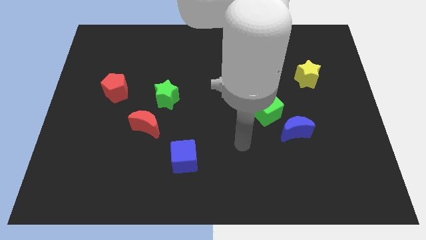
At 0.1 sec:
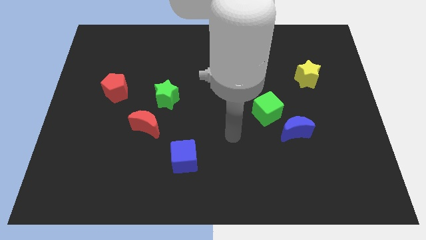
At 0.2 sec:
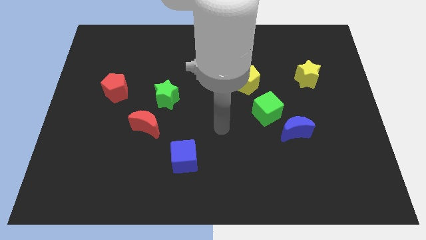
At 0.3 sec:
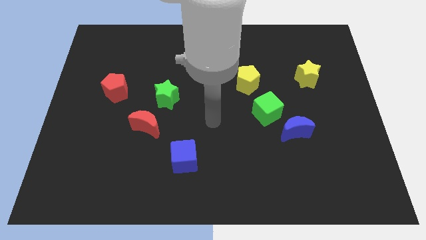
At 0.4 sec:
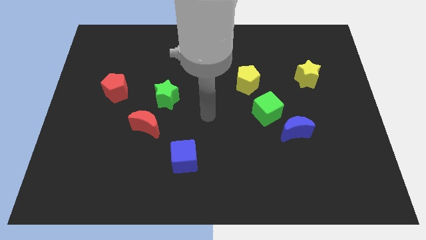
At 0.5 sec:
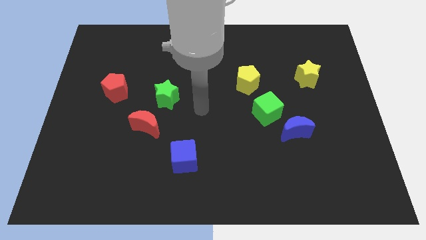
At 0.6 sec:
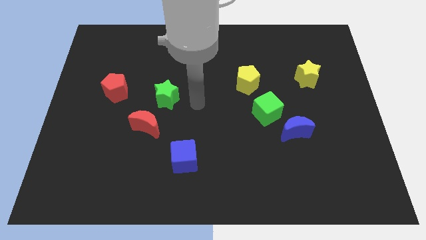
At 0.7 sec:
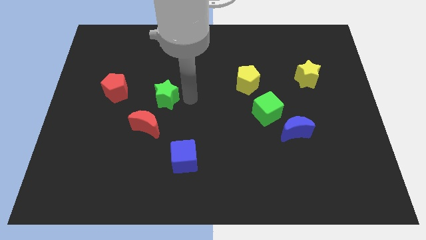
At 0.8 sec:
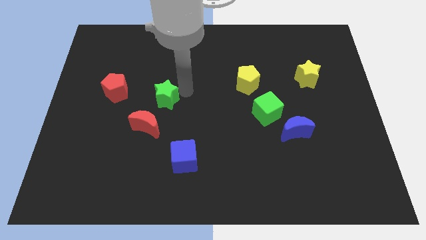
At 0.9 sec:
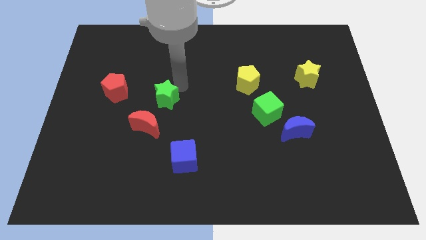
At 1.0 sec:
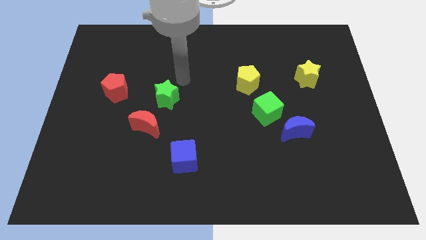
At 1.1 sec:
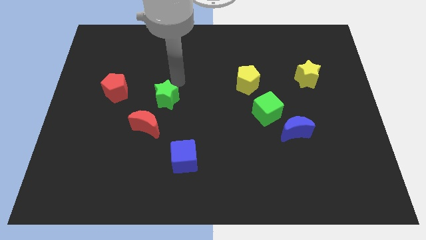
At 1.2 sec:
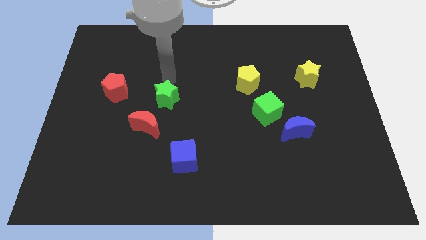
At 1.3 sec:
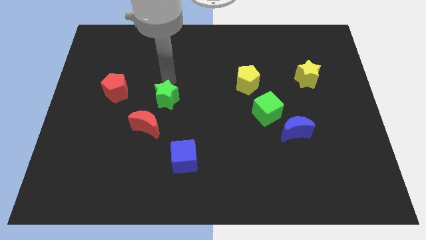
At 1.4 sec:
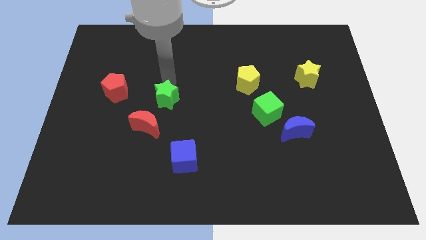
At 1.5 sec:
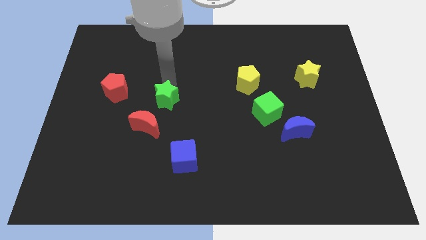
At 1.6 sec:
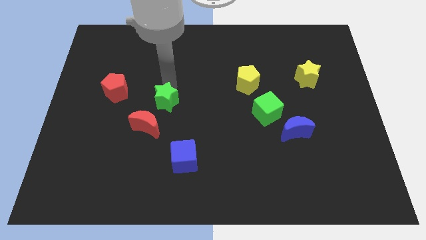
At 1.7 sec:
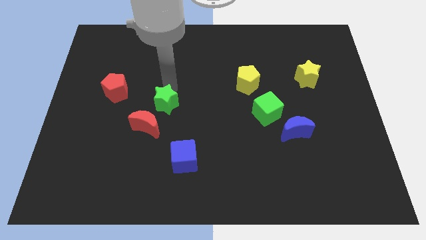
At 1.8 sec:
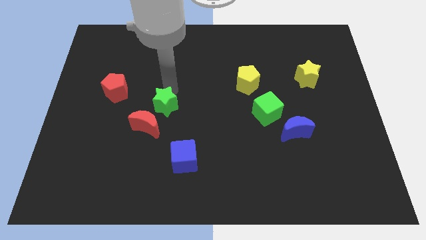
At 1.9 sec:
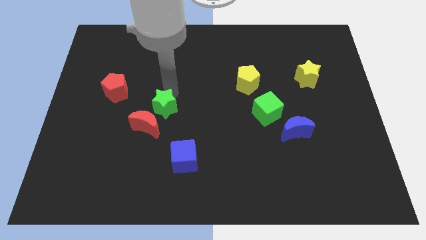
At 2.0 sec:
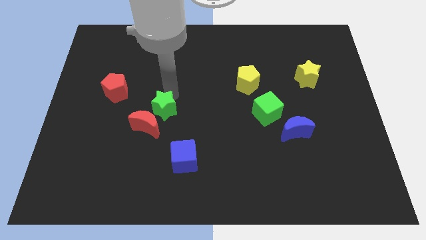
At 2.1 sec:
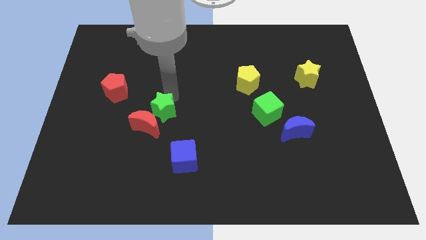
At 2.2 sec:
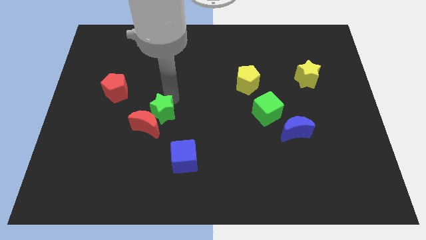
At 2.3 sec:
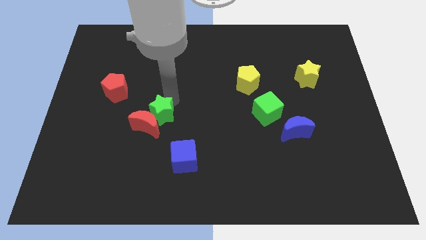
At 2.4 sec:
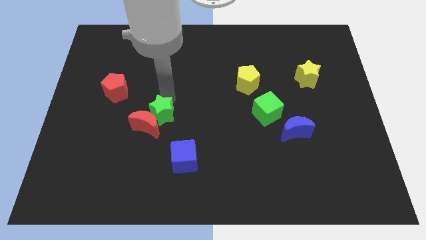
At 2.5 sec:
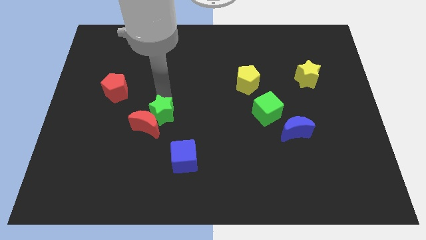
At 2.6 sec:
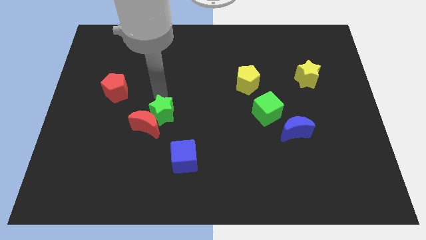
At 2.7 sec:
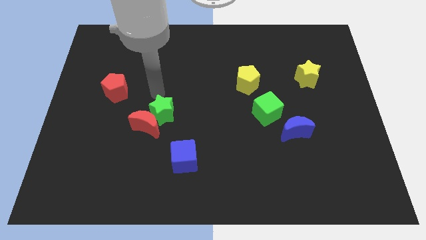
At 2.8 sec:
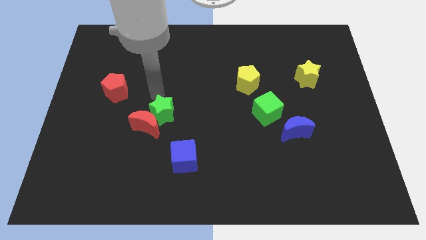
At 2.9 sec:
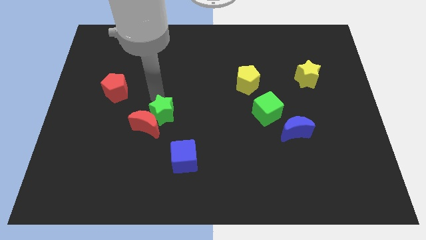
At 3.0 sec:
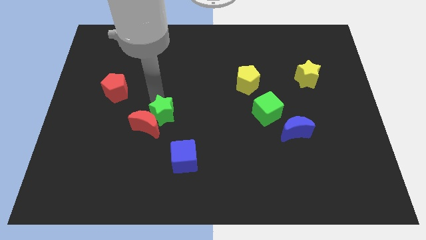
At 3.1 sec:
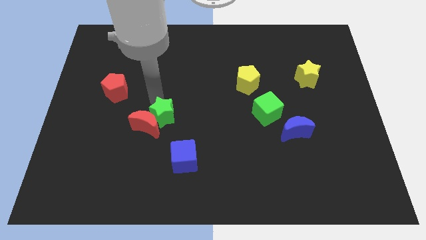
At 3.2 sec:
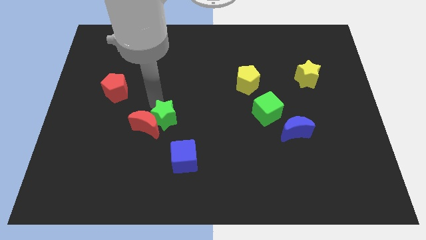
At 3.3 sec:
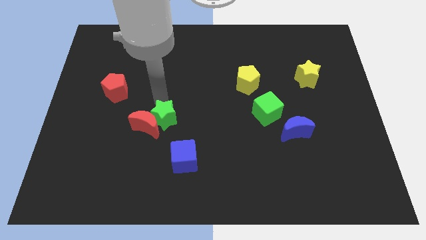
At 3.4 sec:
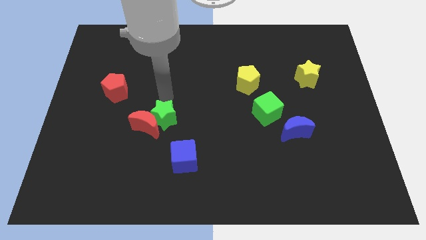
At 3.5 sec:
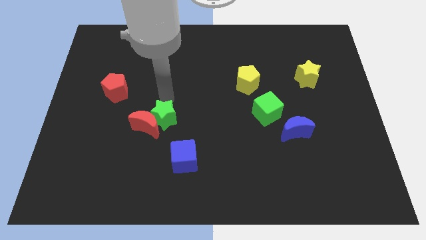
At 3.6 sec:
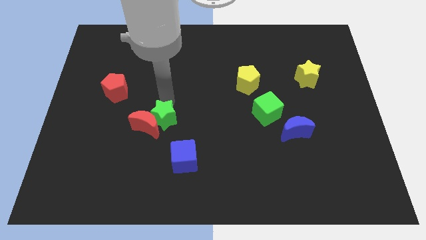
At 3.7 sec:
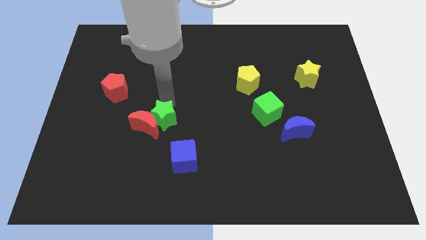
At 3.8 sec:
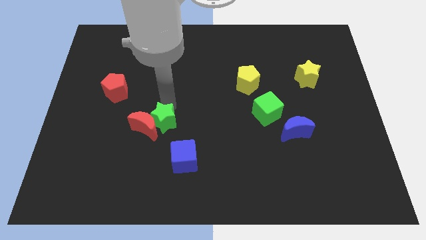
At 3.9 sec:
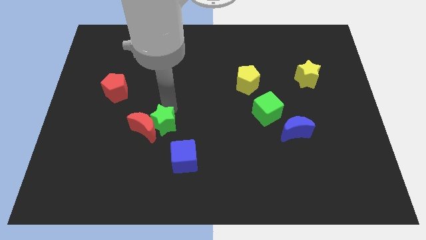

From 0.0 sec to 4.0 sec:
push the green star downwards a bit

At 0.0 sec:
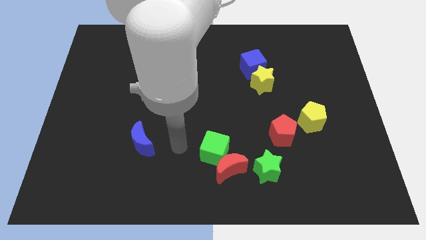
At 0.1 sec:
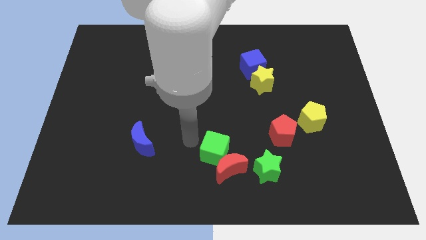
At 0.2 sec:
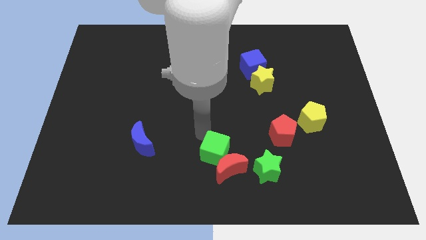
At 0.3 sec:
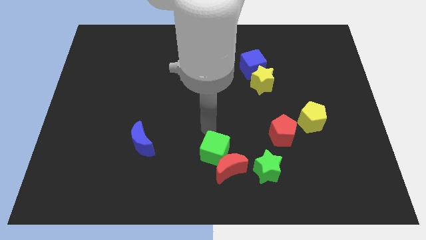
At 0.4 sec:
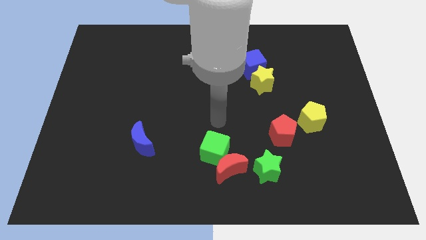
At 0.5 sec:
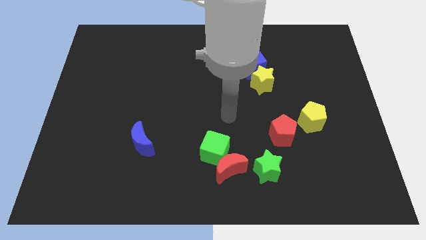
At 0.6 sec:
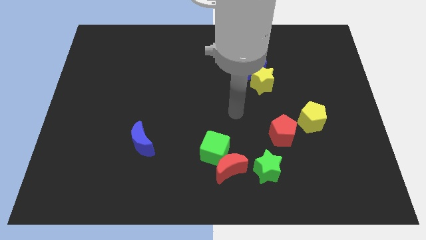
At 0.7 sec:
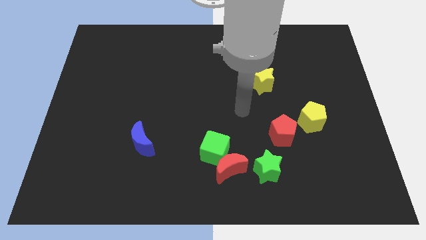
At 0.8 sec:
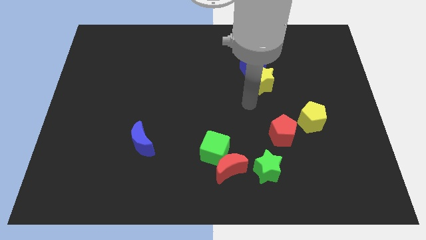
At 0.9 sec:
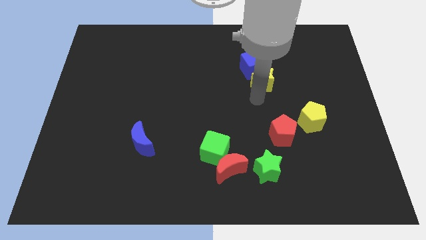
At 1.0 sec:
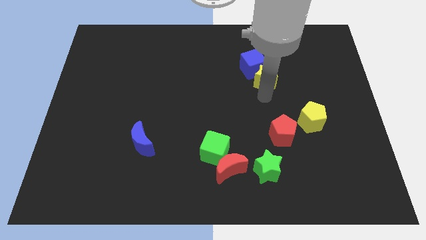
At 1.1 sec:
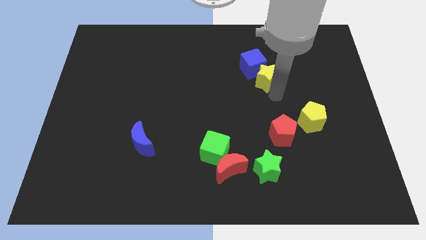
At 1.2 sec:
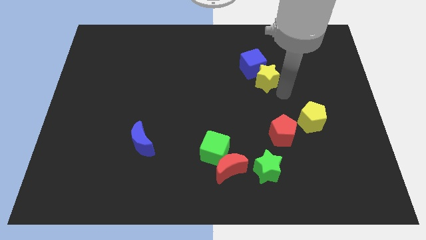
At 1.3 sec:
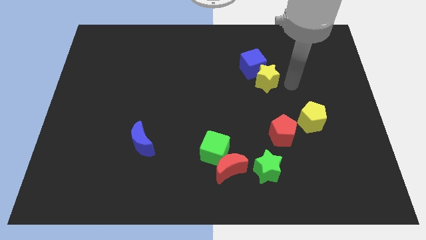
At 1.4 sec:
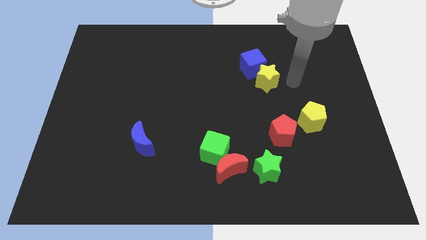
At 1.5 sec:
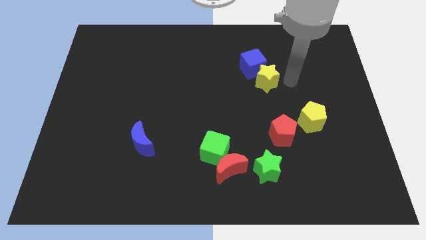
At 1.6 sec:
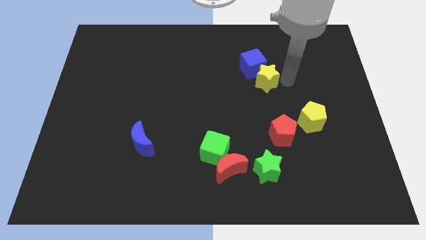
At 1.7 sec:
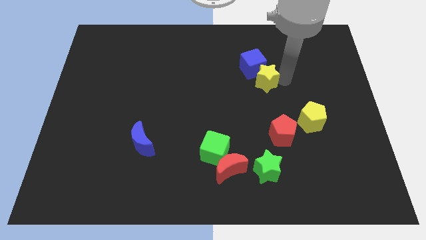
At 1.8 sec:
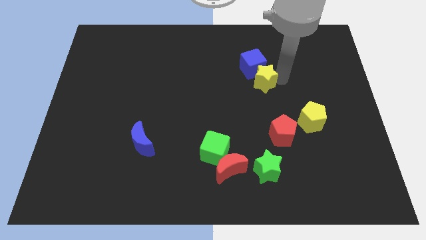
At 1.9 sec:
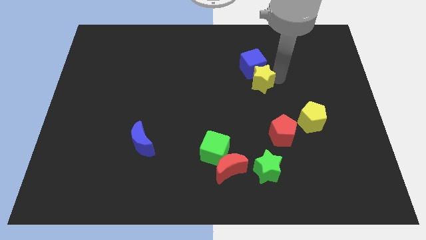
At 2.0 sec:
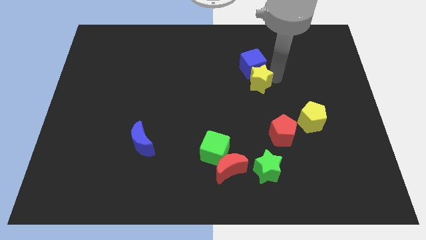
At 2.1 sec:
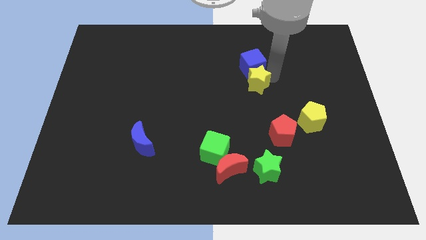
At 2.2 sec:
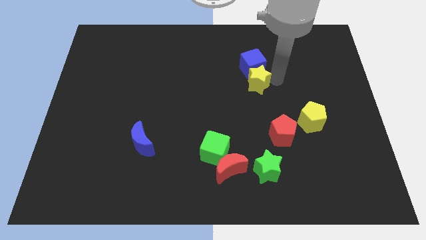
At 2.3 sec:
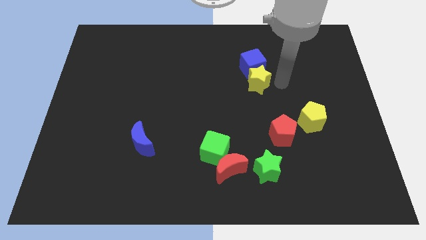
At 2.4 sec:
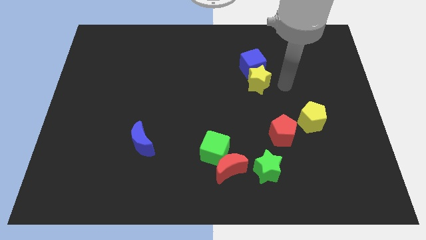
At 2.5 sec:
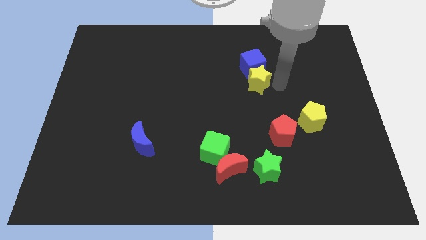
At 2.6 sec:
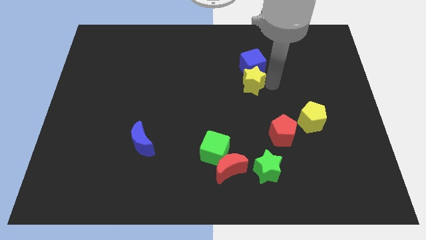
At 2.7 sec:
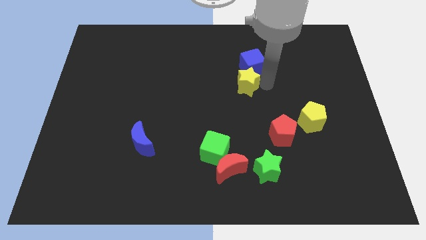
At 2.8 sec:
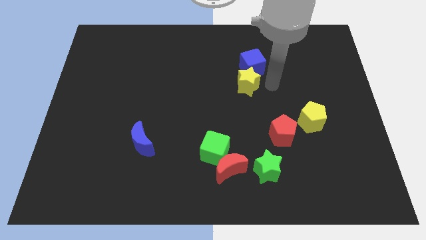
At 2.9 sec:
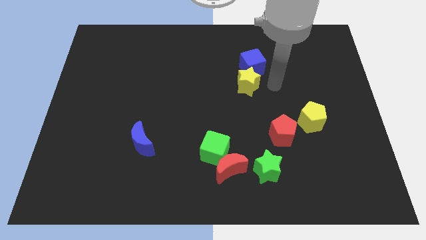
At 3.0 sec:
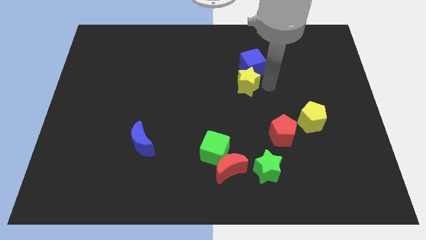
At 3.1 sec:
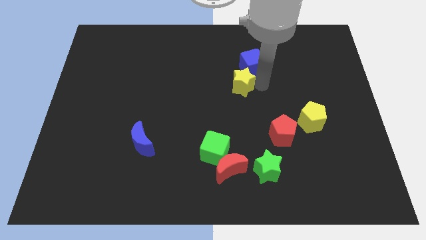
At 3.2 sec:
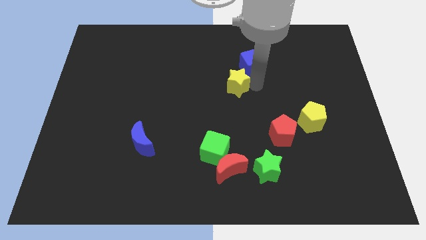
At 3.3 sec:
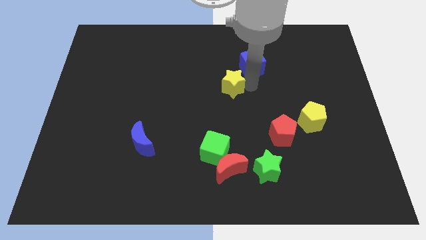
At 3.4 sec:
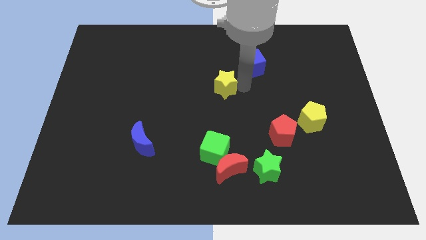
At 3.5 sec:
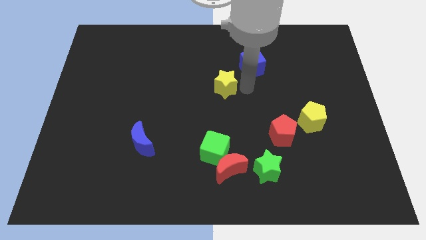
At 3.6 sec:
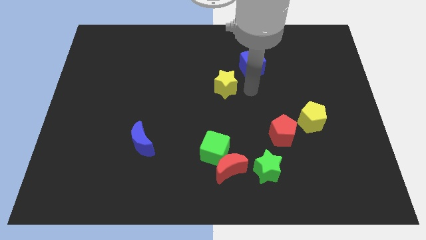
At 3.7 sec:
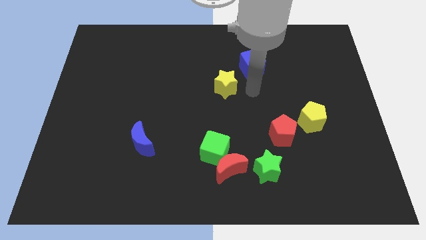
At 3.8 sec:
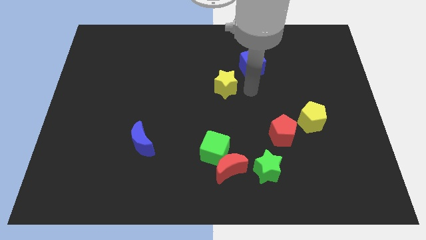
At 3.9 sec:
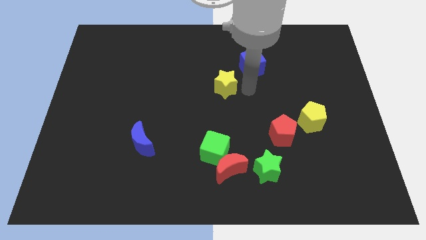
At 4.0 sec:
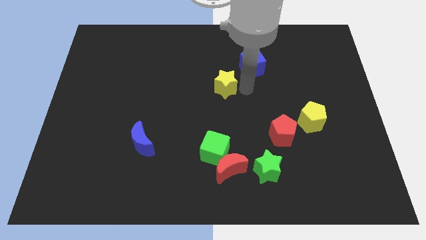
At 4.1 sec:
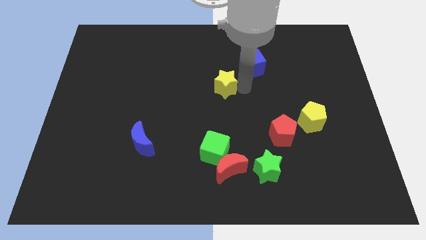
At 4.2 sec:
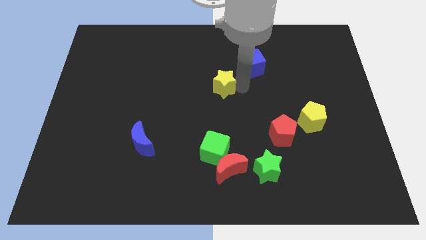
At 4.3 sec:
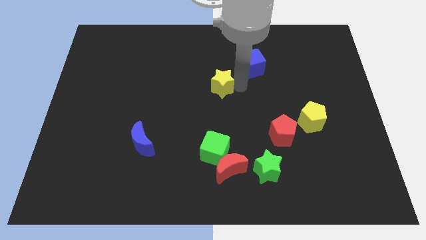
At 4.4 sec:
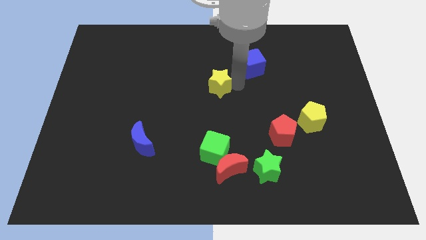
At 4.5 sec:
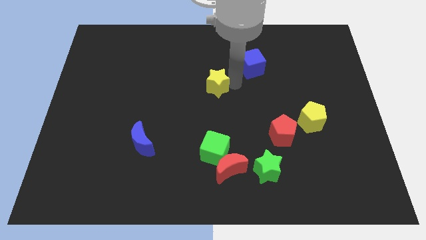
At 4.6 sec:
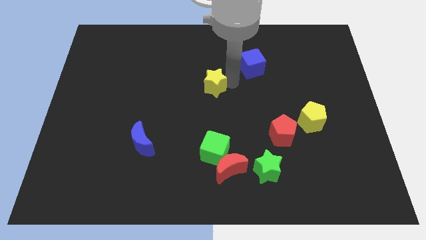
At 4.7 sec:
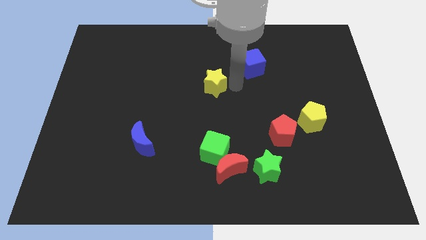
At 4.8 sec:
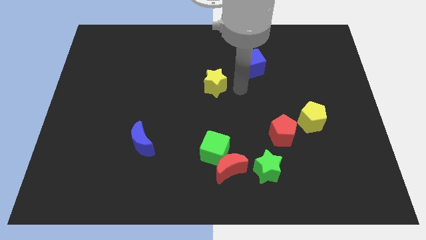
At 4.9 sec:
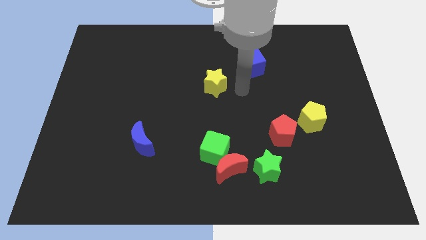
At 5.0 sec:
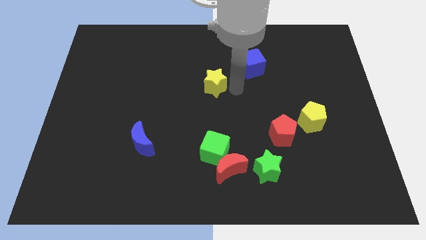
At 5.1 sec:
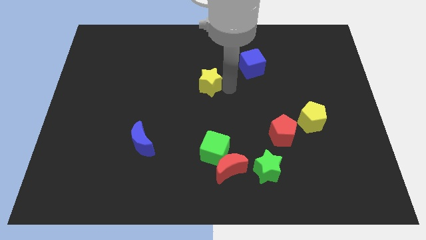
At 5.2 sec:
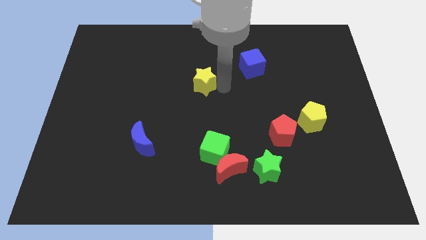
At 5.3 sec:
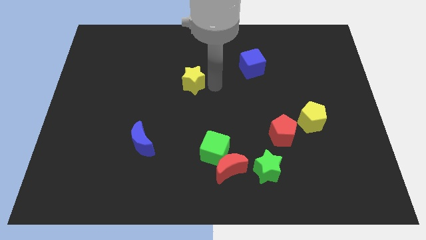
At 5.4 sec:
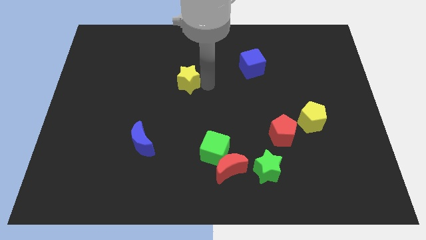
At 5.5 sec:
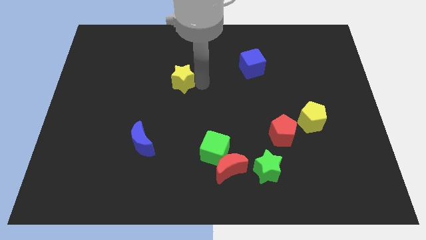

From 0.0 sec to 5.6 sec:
slide the yellow star to the left
